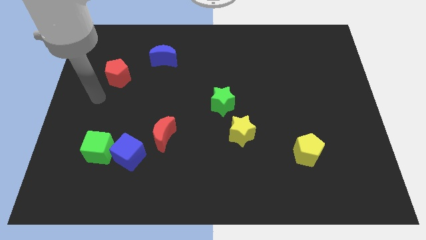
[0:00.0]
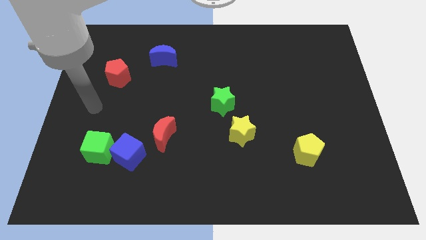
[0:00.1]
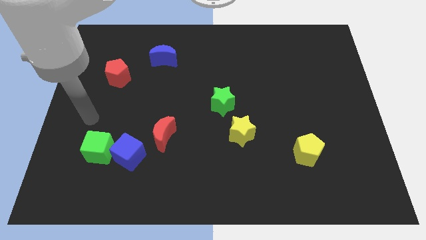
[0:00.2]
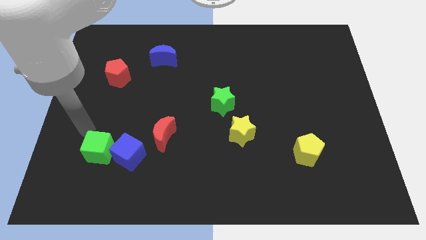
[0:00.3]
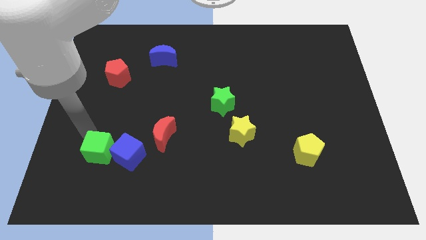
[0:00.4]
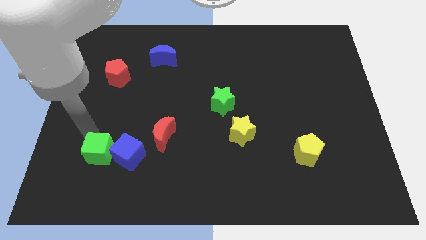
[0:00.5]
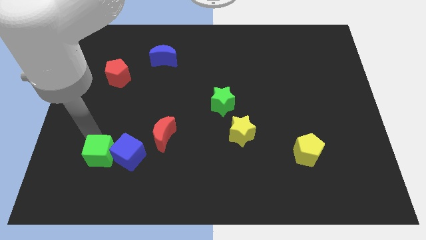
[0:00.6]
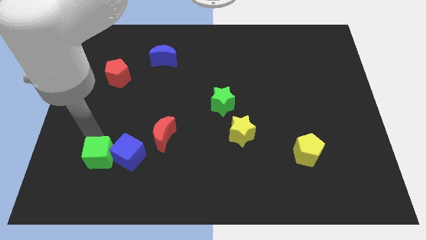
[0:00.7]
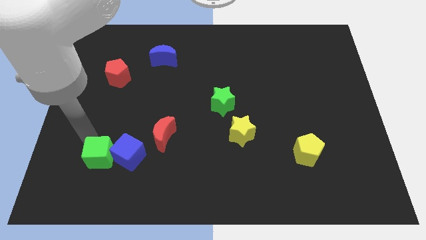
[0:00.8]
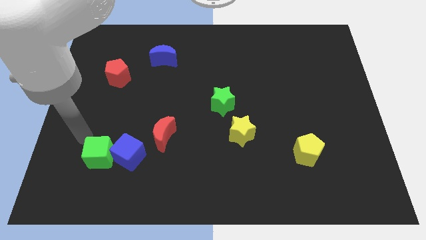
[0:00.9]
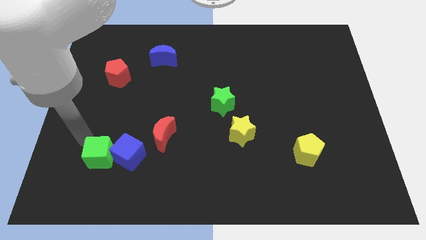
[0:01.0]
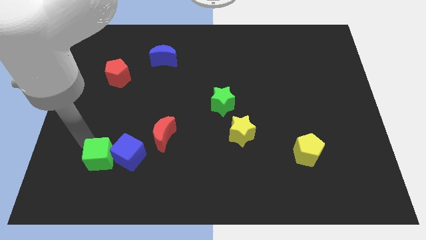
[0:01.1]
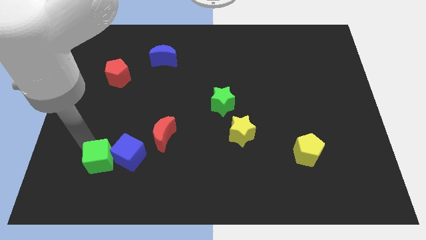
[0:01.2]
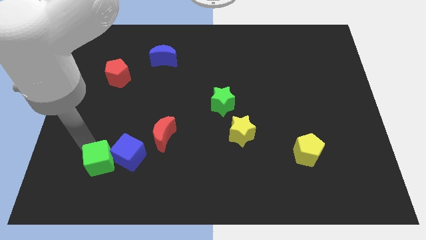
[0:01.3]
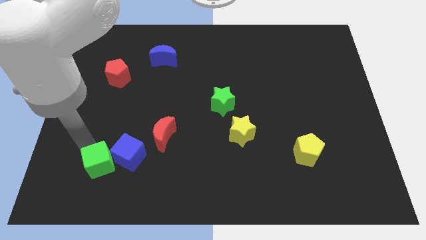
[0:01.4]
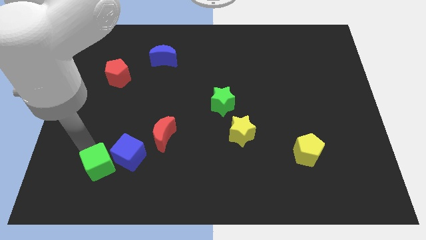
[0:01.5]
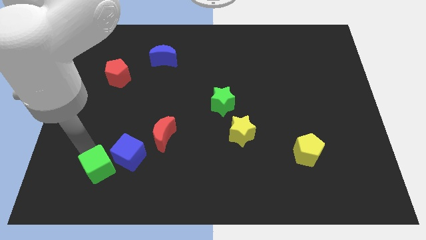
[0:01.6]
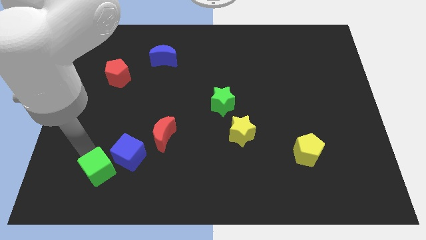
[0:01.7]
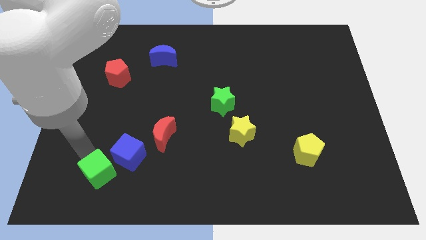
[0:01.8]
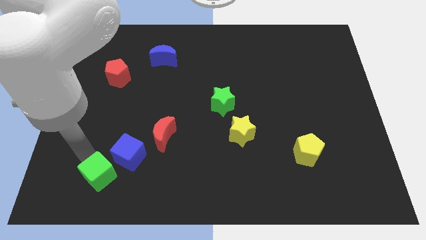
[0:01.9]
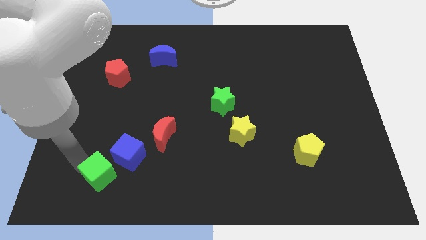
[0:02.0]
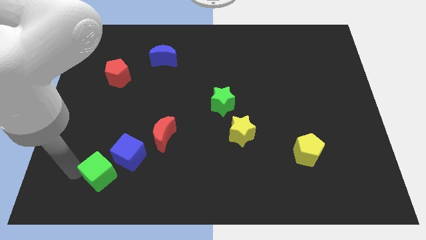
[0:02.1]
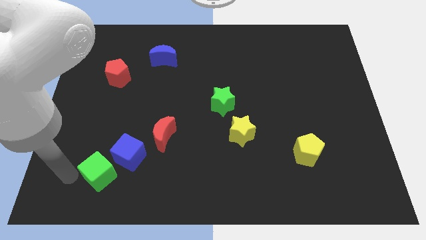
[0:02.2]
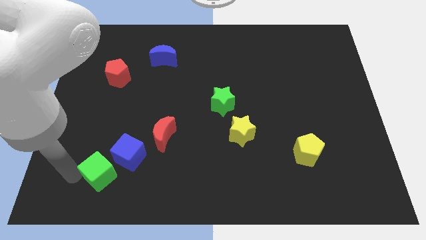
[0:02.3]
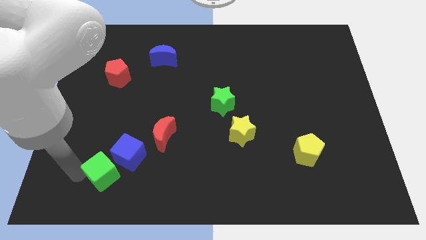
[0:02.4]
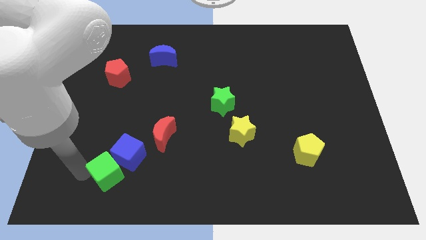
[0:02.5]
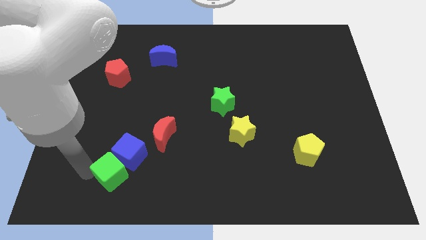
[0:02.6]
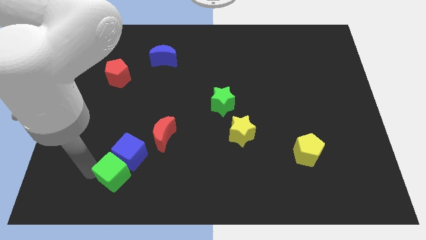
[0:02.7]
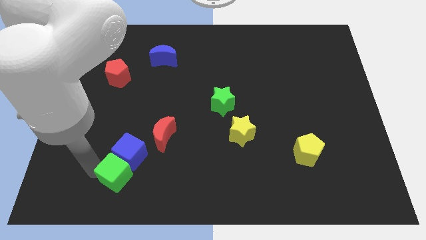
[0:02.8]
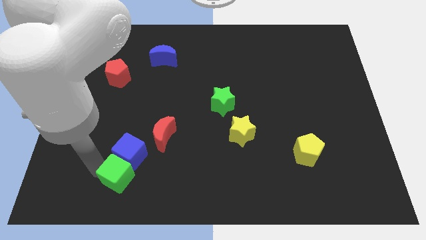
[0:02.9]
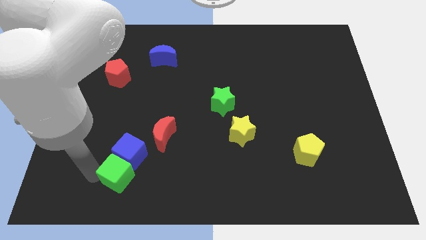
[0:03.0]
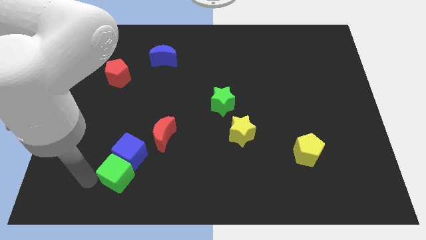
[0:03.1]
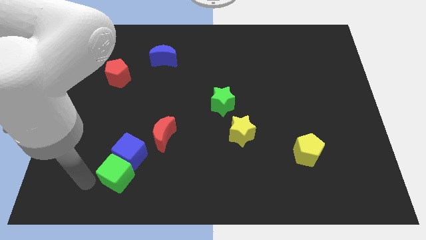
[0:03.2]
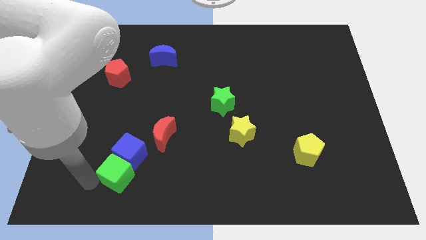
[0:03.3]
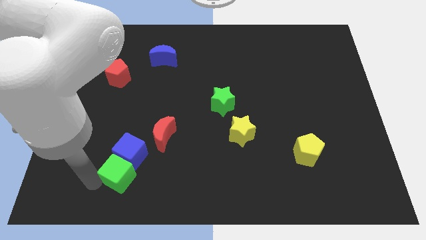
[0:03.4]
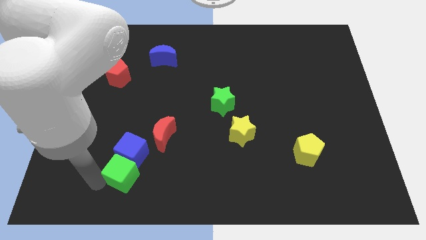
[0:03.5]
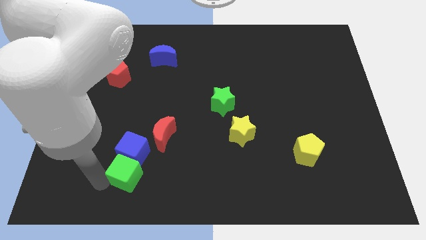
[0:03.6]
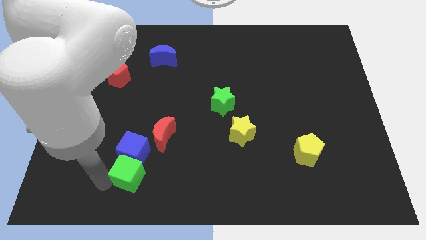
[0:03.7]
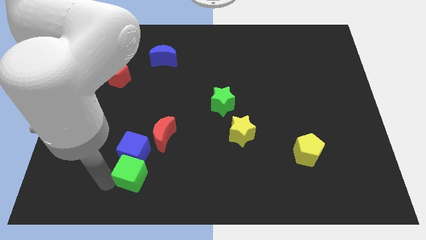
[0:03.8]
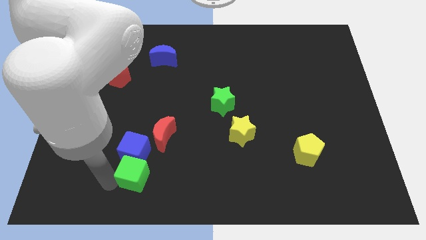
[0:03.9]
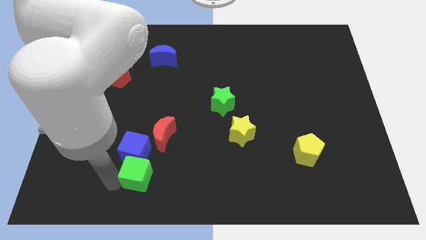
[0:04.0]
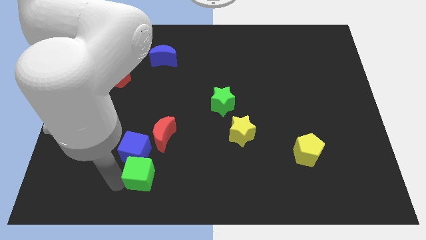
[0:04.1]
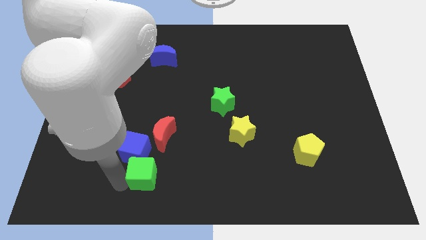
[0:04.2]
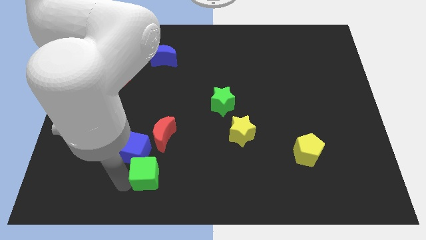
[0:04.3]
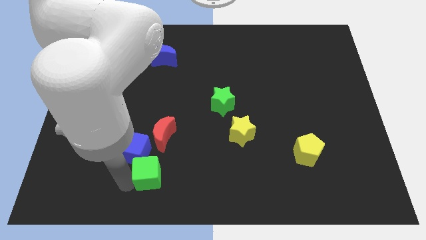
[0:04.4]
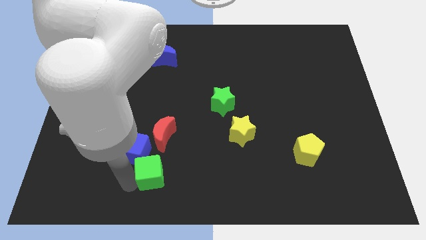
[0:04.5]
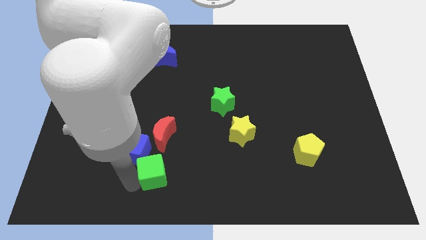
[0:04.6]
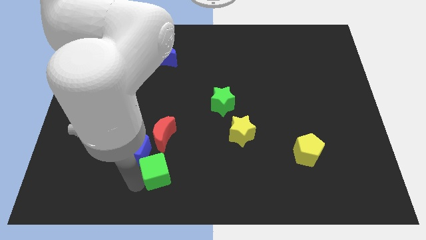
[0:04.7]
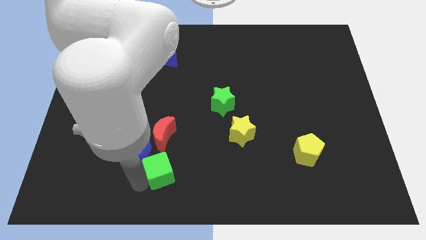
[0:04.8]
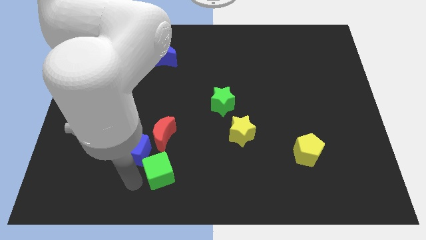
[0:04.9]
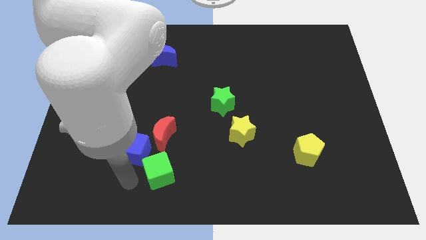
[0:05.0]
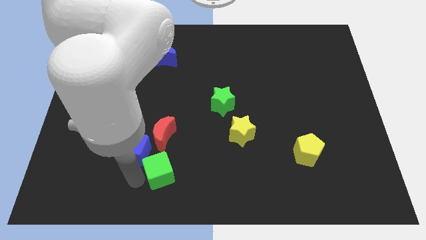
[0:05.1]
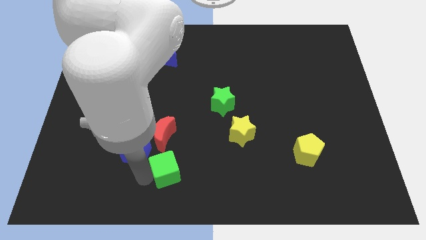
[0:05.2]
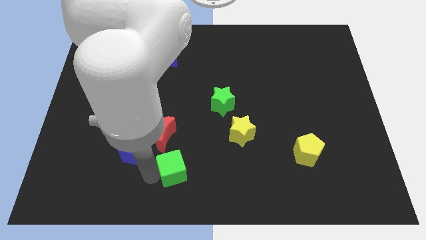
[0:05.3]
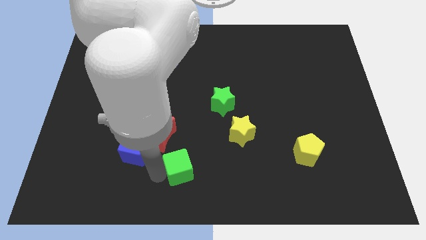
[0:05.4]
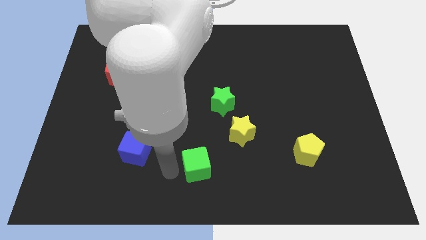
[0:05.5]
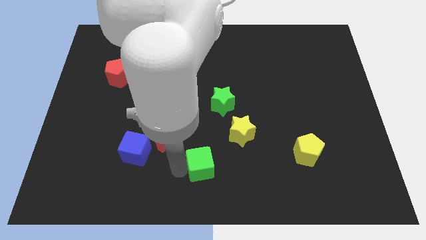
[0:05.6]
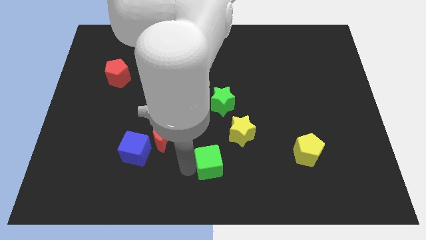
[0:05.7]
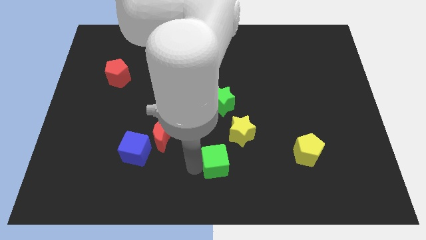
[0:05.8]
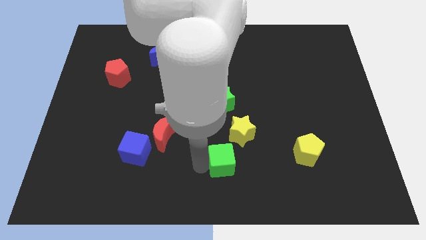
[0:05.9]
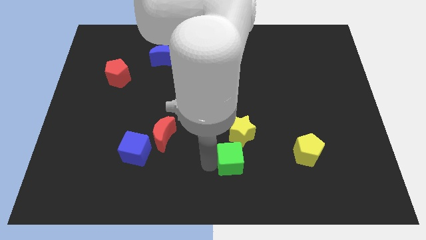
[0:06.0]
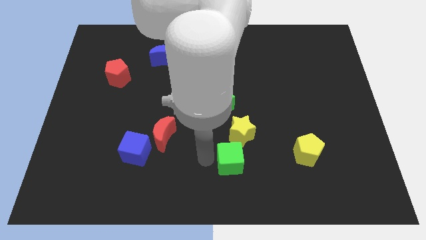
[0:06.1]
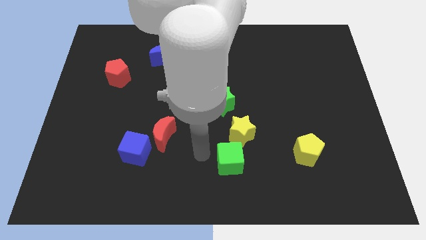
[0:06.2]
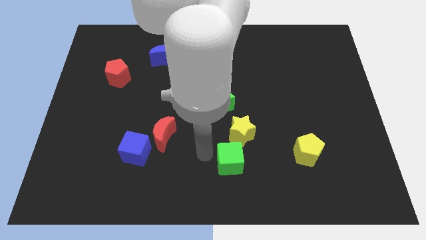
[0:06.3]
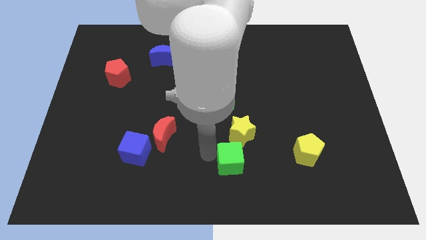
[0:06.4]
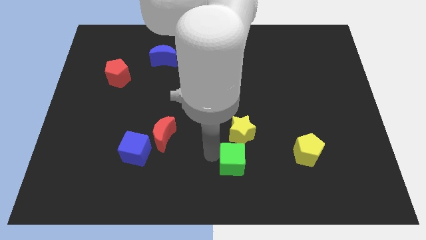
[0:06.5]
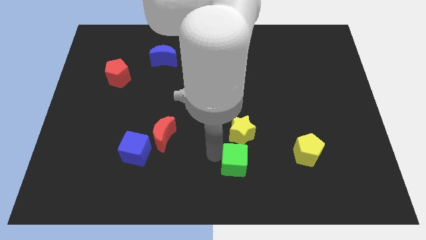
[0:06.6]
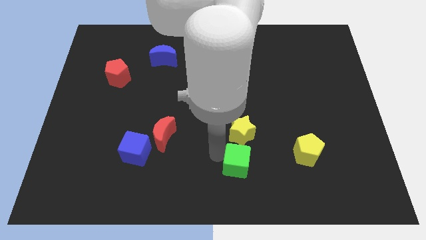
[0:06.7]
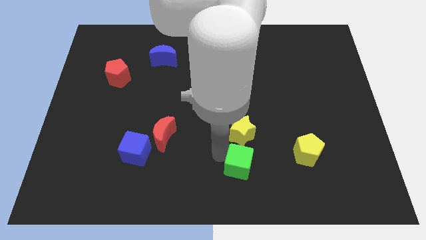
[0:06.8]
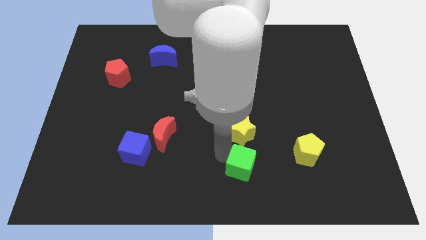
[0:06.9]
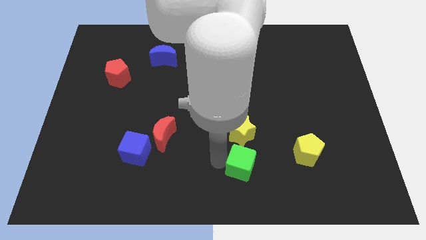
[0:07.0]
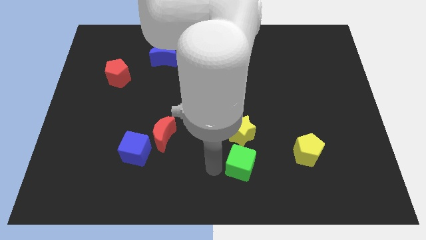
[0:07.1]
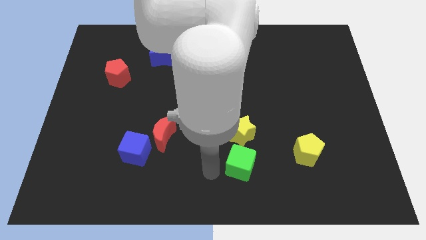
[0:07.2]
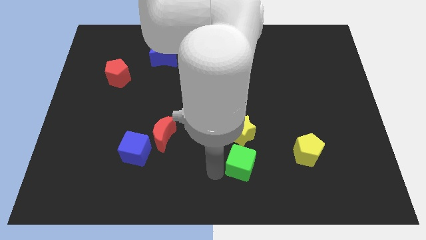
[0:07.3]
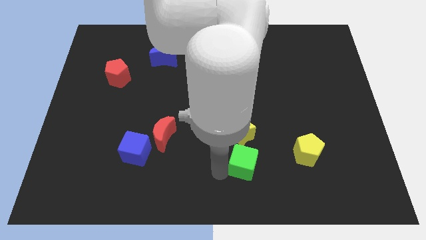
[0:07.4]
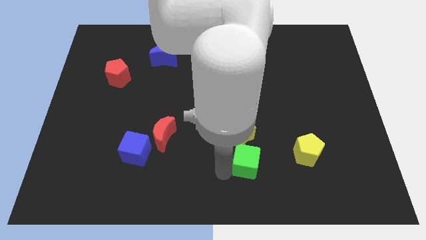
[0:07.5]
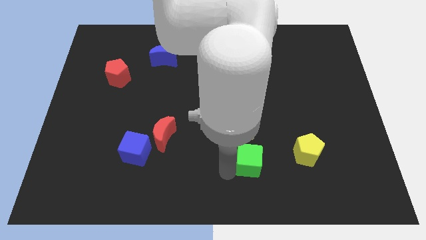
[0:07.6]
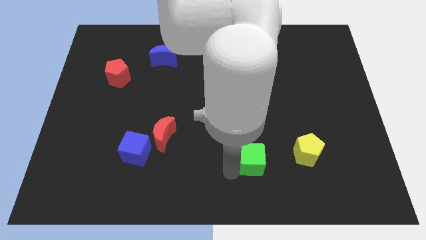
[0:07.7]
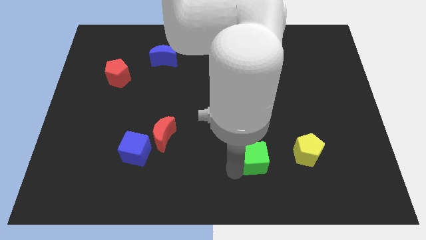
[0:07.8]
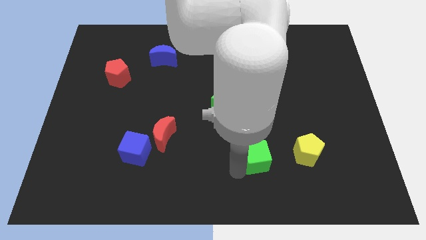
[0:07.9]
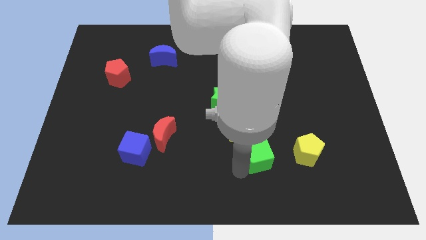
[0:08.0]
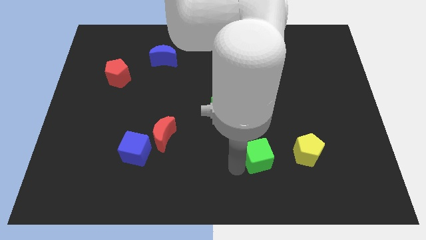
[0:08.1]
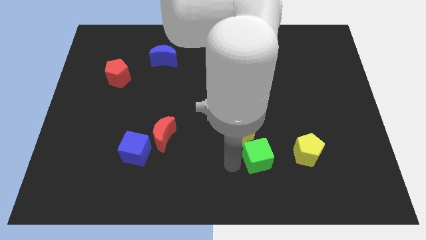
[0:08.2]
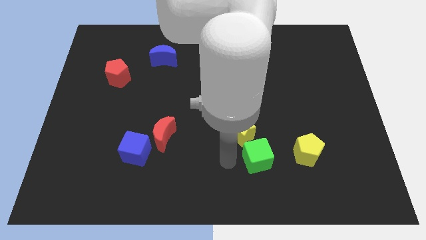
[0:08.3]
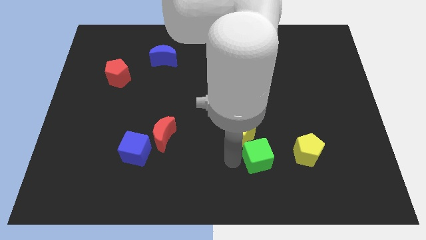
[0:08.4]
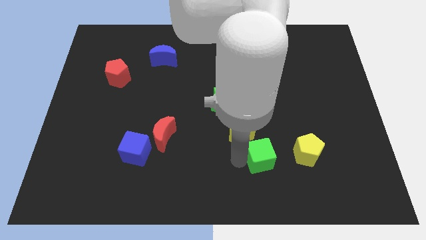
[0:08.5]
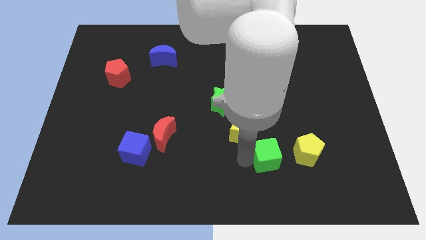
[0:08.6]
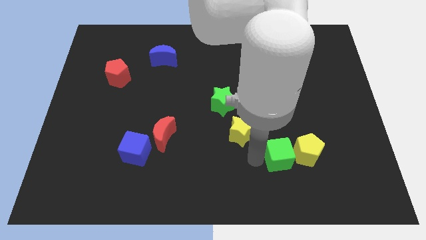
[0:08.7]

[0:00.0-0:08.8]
push the green cube close to the yellow pentagon
